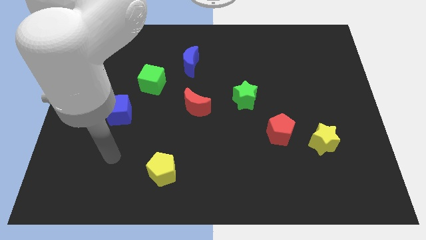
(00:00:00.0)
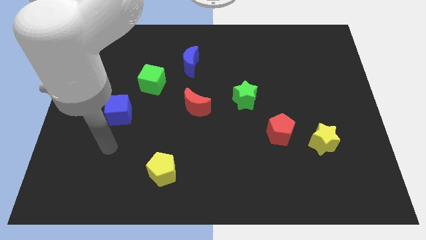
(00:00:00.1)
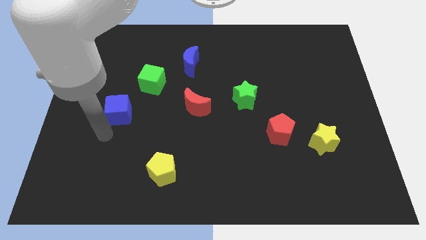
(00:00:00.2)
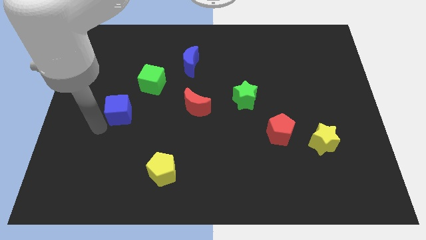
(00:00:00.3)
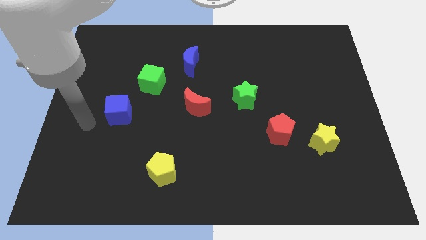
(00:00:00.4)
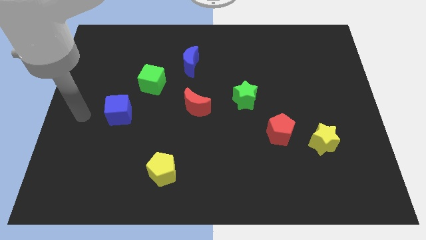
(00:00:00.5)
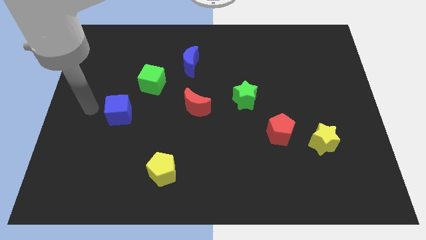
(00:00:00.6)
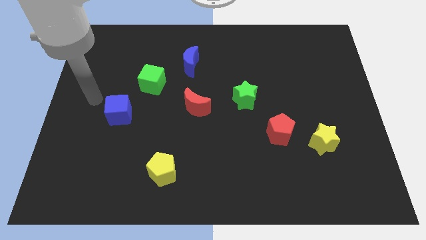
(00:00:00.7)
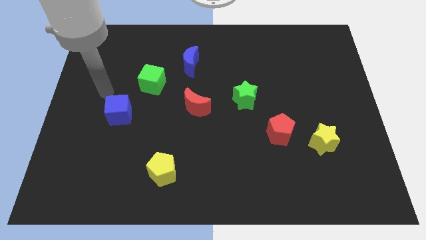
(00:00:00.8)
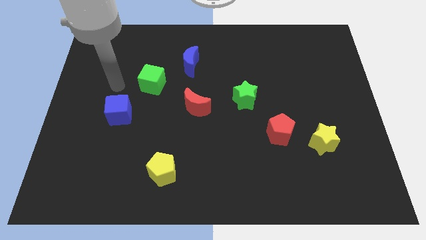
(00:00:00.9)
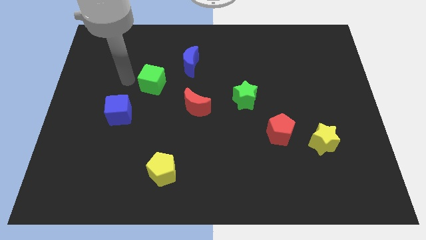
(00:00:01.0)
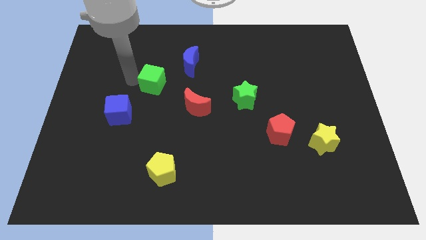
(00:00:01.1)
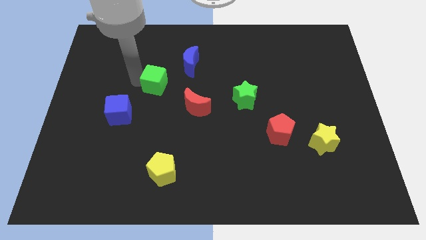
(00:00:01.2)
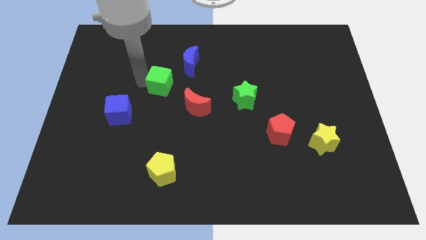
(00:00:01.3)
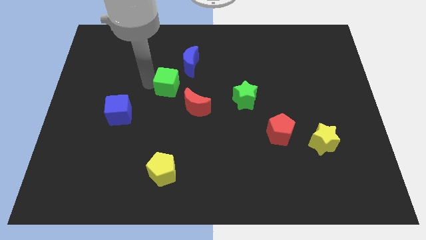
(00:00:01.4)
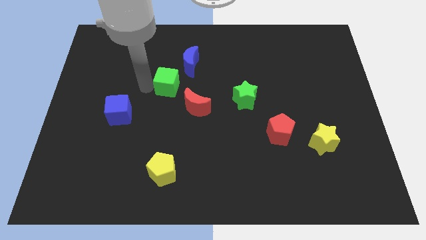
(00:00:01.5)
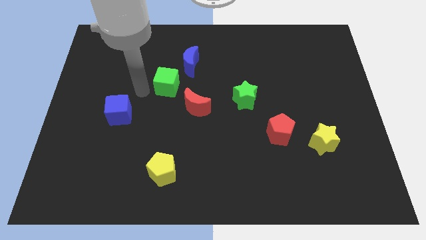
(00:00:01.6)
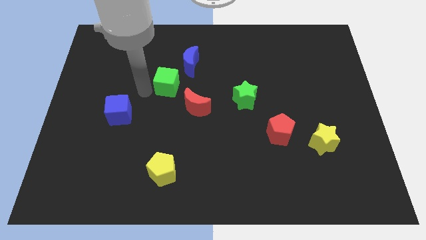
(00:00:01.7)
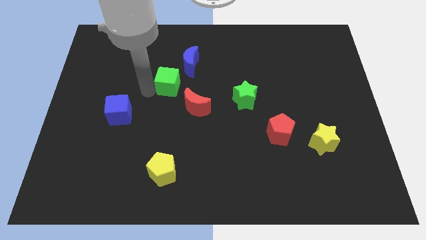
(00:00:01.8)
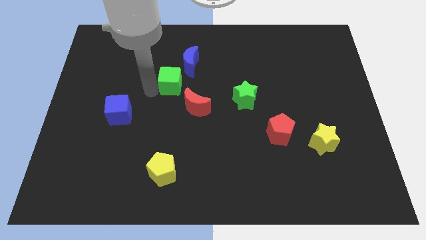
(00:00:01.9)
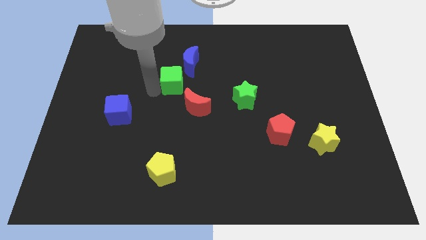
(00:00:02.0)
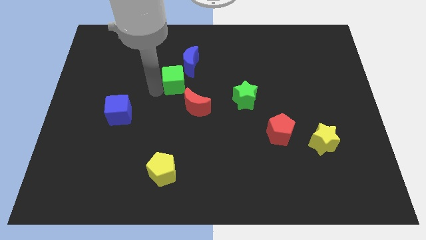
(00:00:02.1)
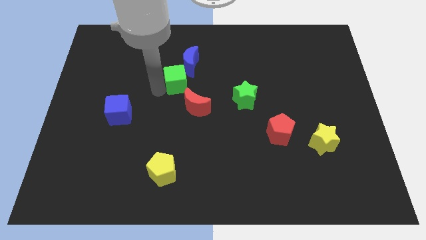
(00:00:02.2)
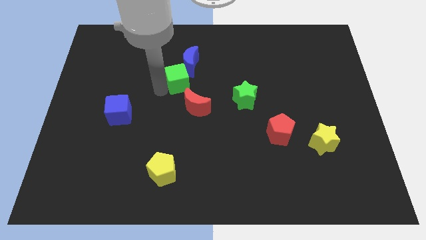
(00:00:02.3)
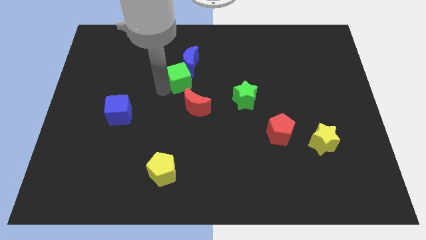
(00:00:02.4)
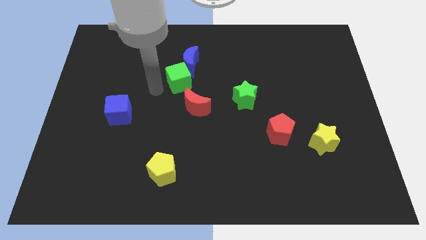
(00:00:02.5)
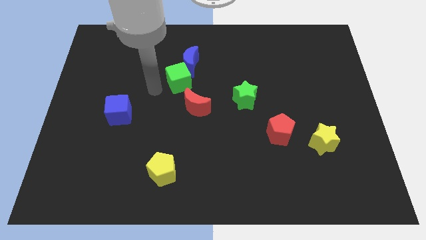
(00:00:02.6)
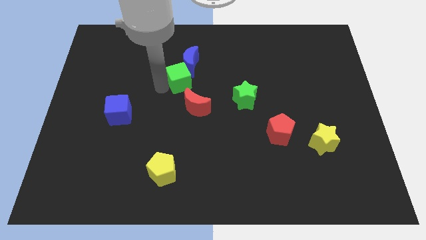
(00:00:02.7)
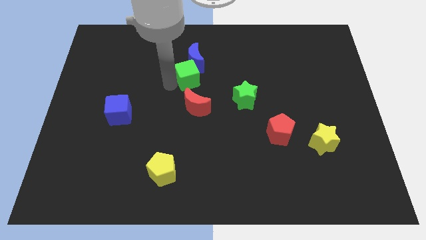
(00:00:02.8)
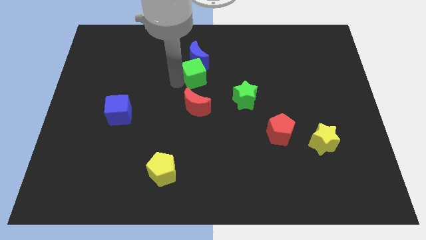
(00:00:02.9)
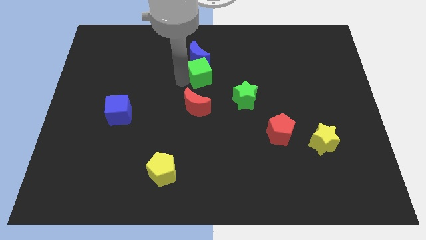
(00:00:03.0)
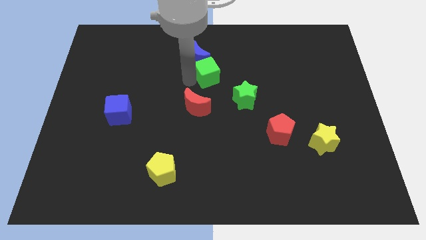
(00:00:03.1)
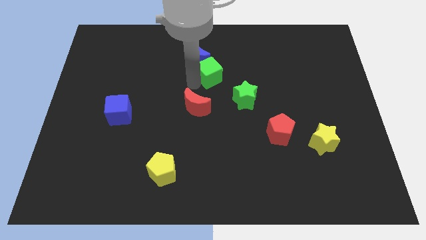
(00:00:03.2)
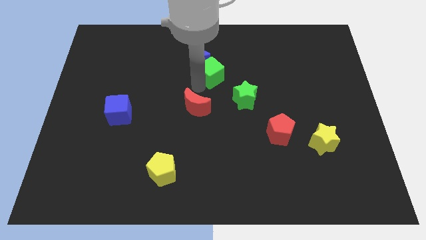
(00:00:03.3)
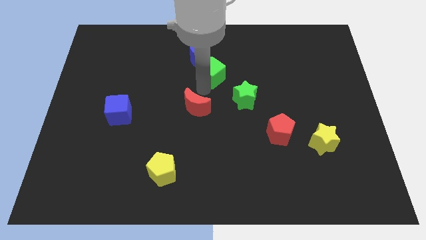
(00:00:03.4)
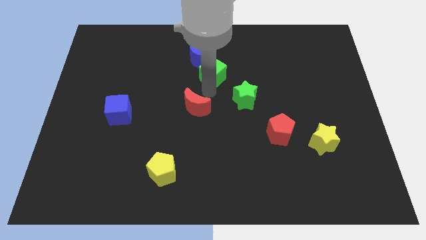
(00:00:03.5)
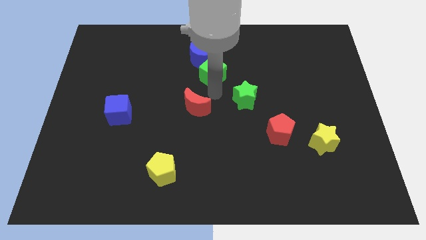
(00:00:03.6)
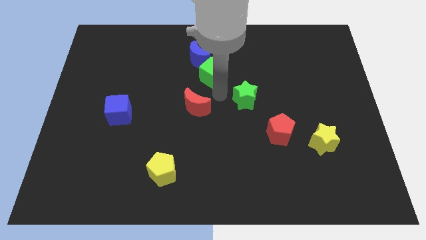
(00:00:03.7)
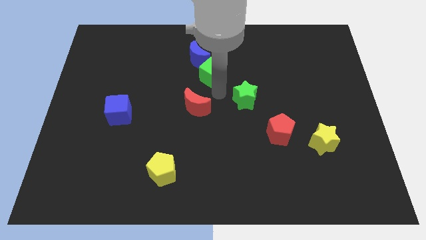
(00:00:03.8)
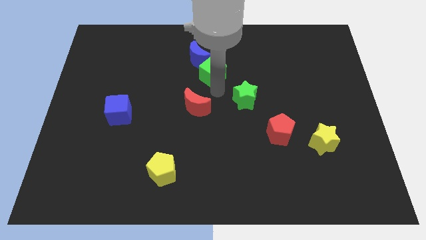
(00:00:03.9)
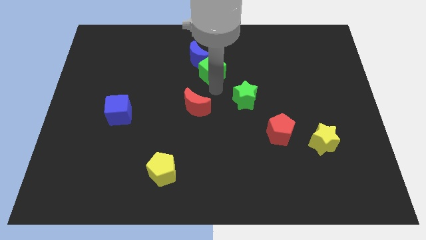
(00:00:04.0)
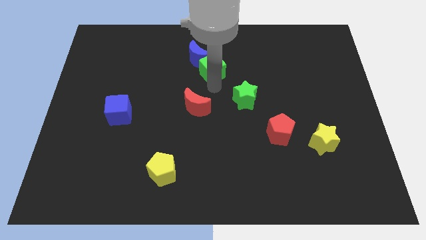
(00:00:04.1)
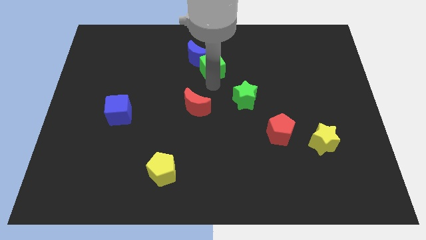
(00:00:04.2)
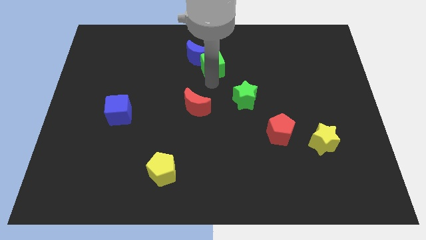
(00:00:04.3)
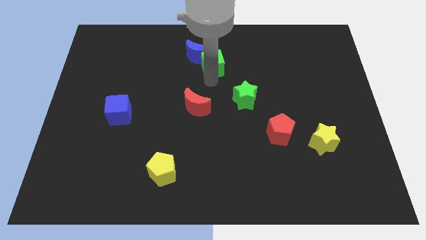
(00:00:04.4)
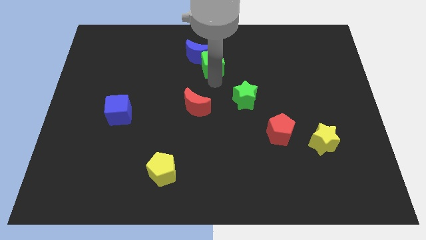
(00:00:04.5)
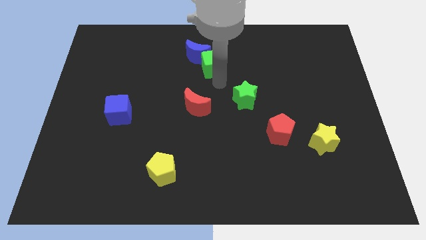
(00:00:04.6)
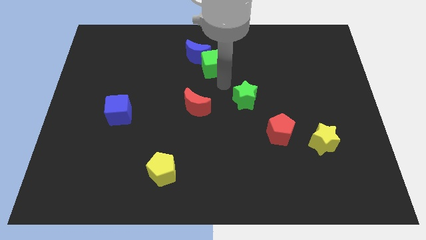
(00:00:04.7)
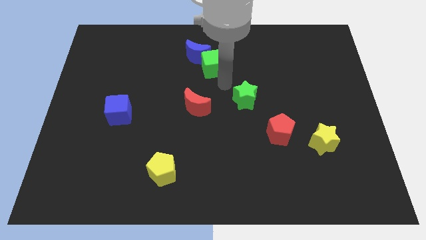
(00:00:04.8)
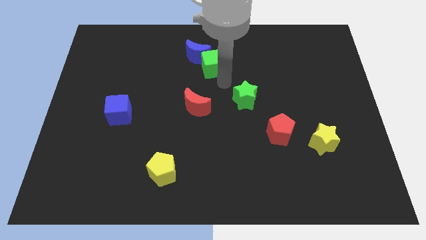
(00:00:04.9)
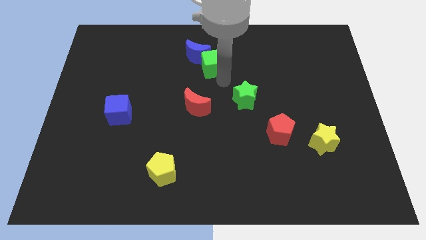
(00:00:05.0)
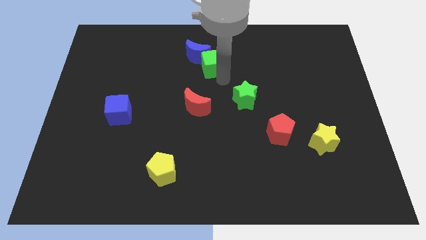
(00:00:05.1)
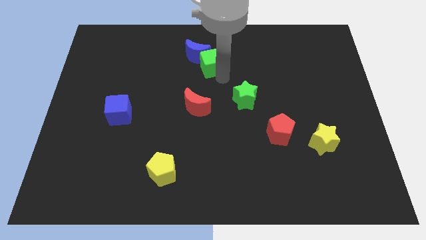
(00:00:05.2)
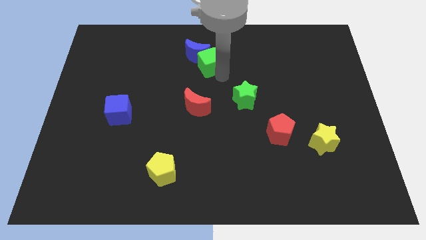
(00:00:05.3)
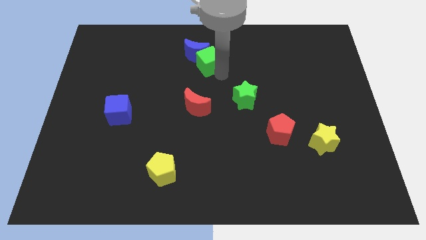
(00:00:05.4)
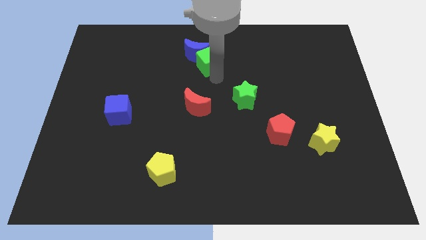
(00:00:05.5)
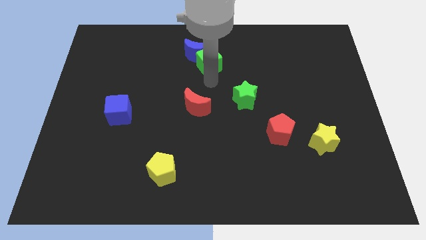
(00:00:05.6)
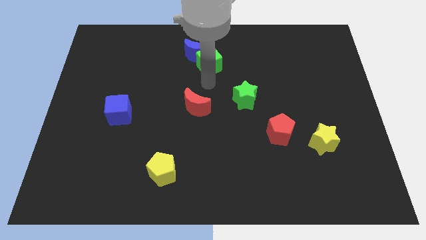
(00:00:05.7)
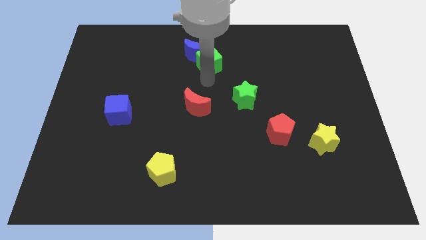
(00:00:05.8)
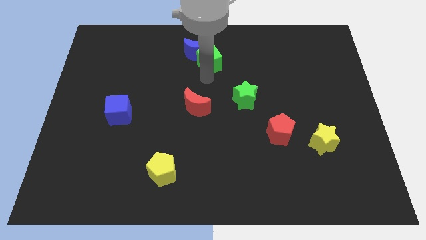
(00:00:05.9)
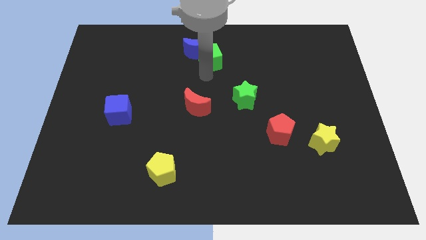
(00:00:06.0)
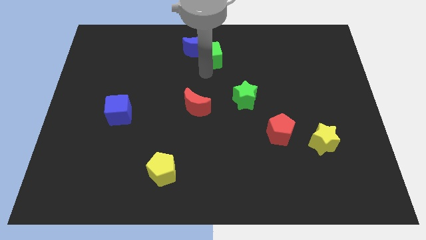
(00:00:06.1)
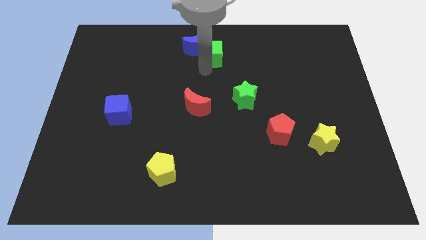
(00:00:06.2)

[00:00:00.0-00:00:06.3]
move the green cube to the top side
